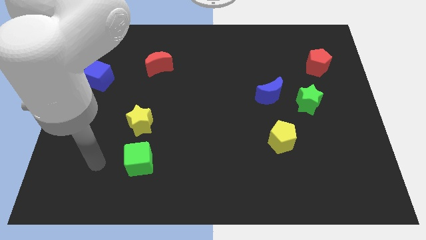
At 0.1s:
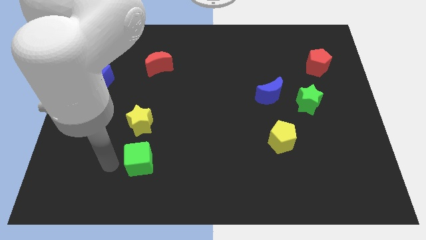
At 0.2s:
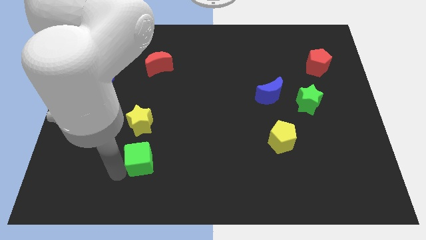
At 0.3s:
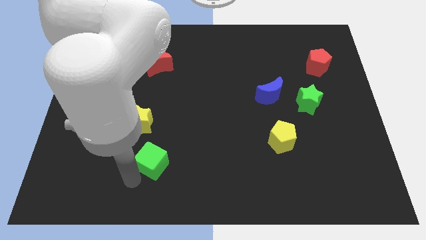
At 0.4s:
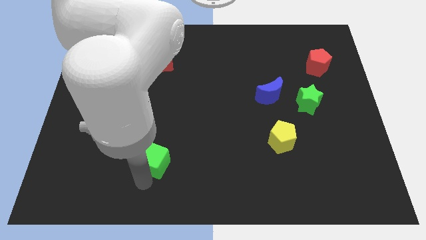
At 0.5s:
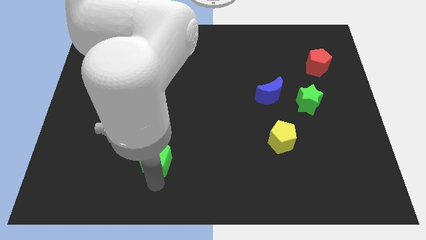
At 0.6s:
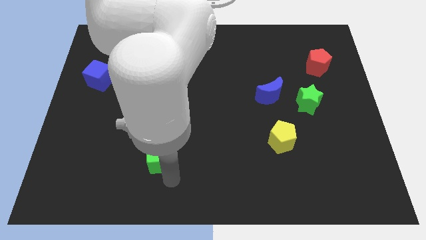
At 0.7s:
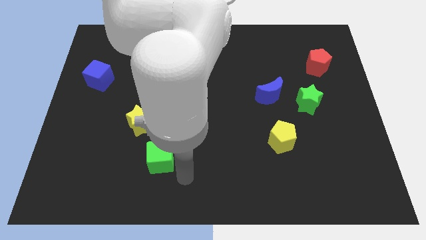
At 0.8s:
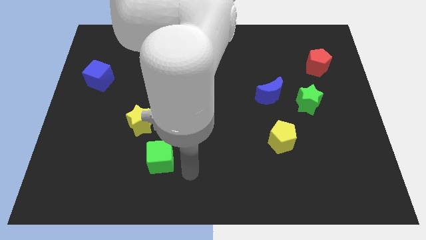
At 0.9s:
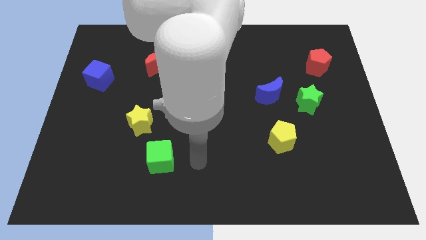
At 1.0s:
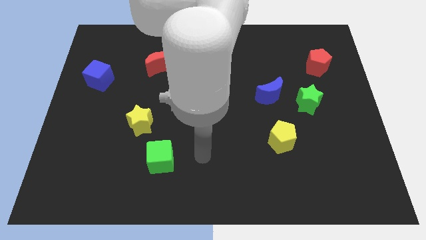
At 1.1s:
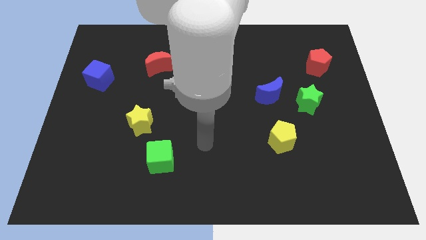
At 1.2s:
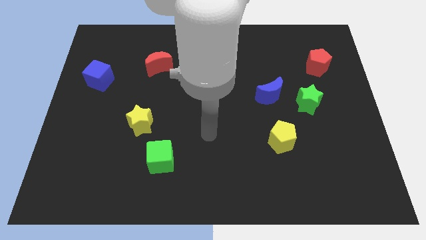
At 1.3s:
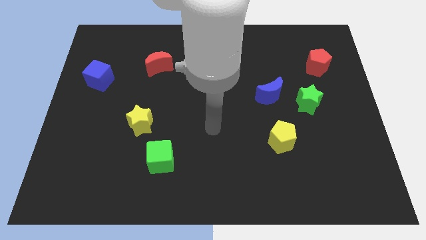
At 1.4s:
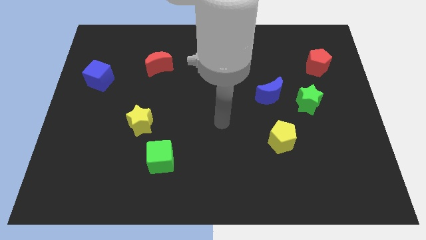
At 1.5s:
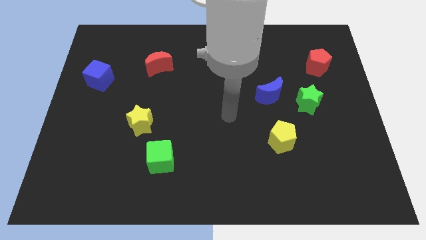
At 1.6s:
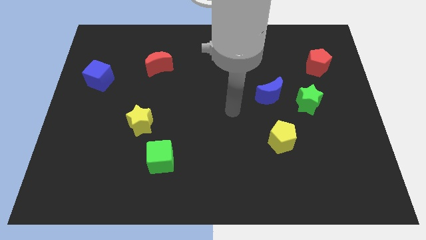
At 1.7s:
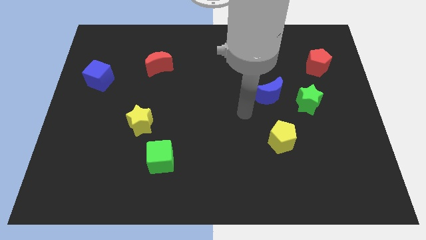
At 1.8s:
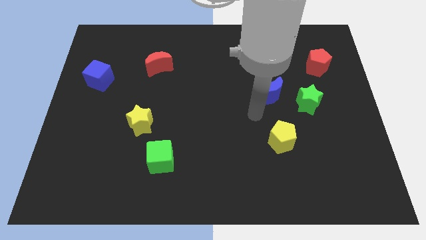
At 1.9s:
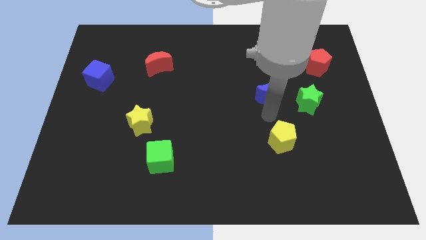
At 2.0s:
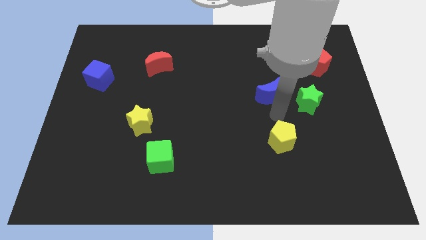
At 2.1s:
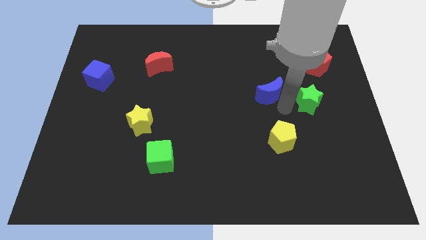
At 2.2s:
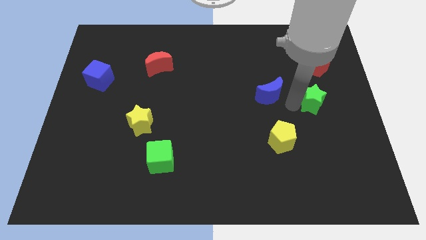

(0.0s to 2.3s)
move the blue moon away from the green star

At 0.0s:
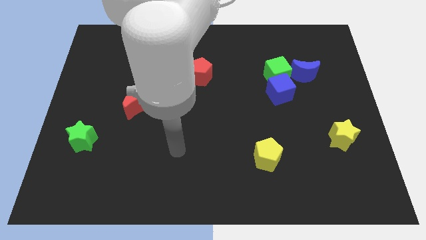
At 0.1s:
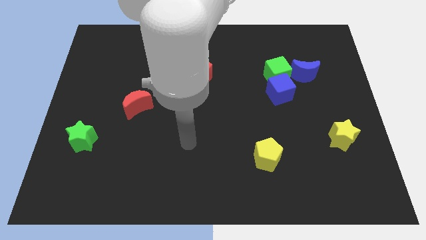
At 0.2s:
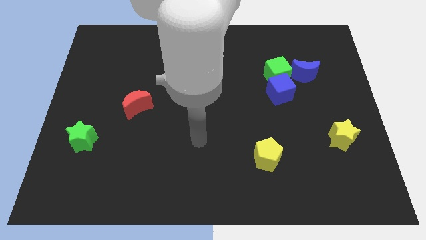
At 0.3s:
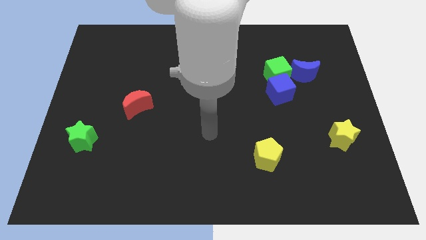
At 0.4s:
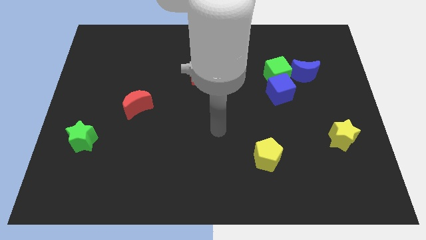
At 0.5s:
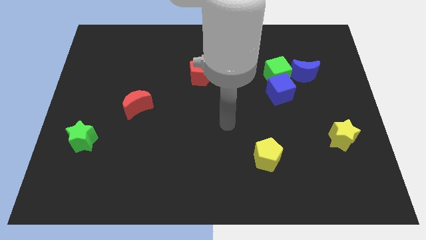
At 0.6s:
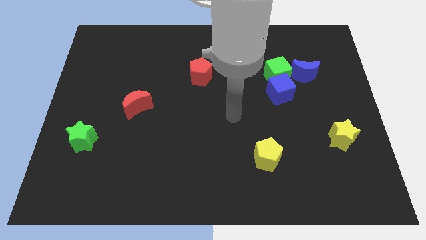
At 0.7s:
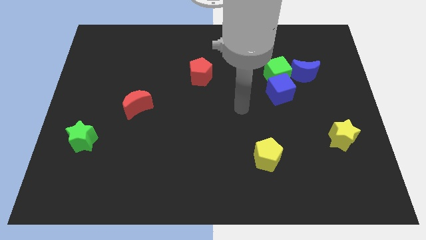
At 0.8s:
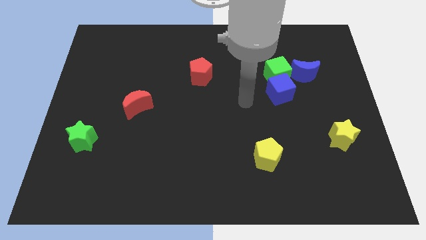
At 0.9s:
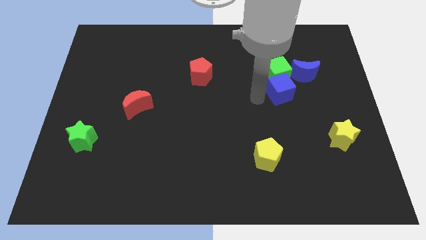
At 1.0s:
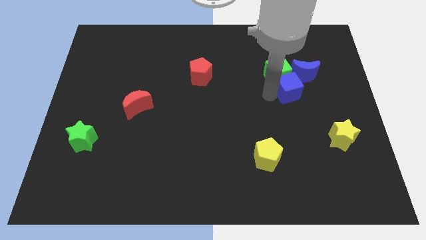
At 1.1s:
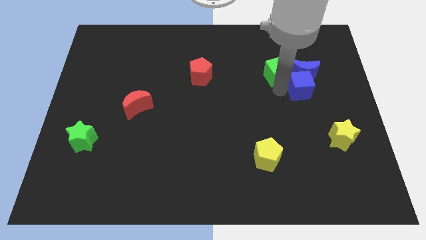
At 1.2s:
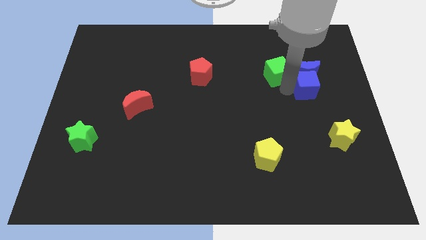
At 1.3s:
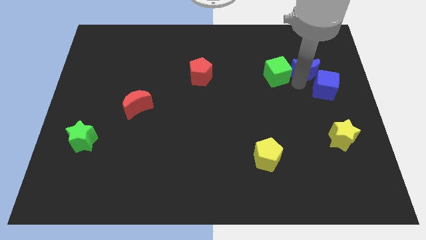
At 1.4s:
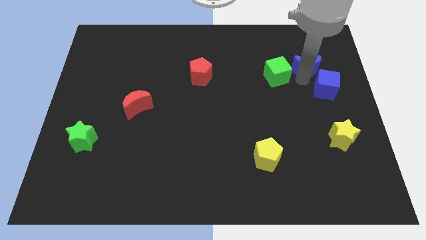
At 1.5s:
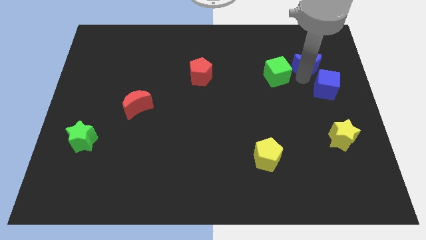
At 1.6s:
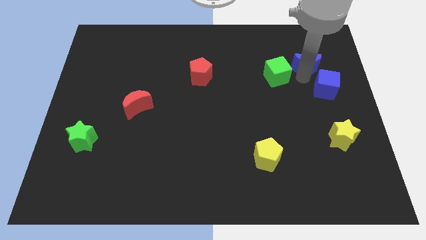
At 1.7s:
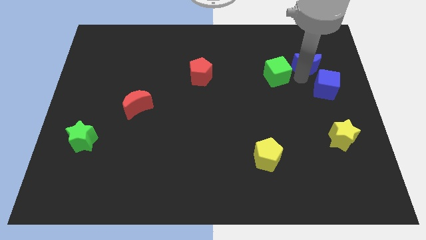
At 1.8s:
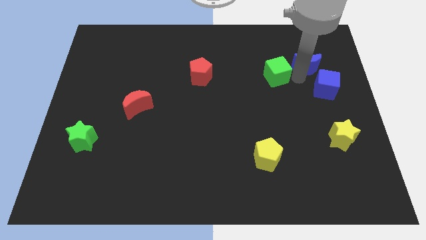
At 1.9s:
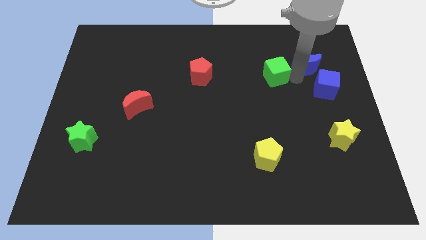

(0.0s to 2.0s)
move the green cube away from the blue cube and blue moon

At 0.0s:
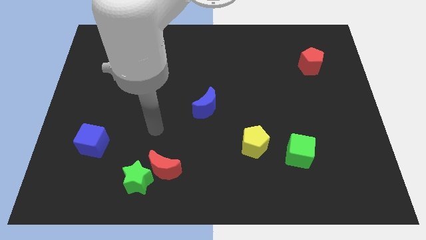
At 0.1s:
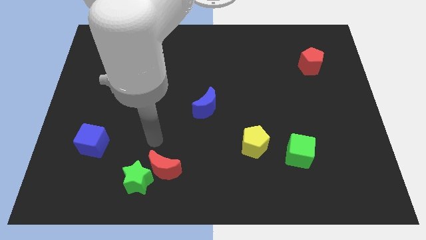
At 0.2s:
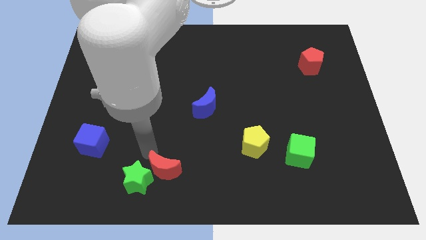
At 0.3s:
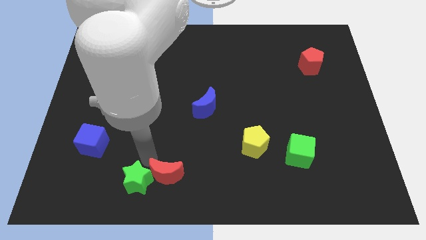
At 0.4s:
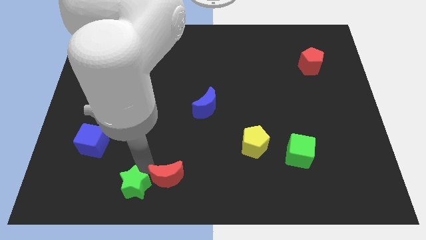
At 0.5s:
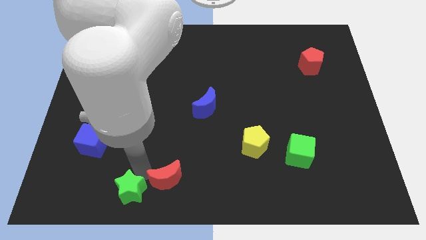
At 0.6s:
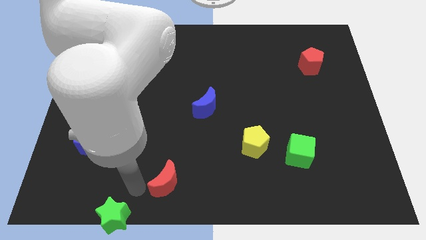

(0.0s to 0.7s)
move the red moon away from the green star

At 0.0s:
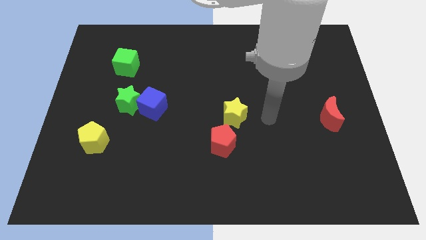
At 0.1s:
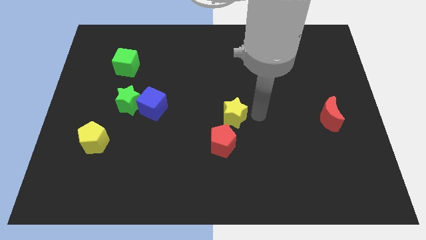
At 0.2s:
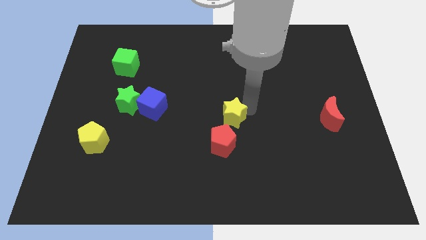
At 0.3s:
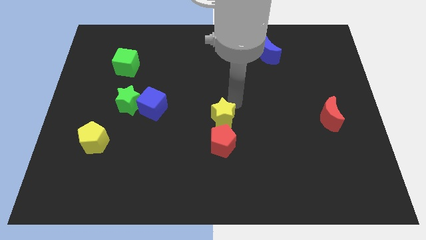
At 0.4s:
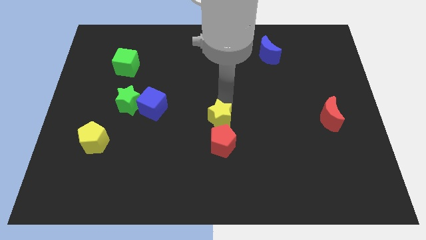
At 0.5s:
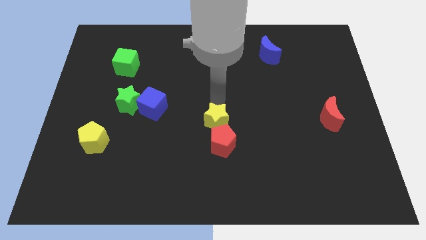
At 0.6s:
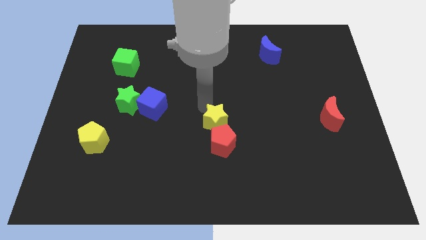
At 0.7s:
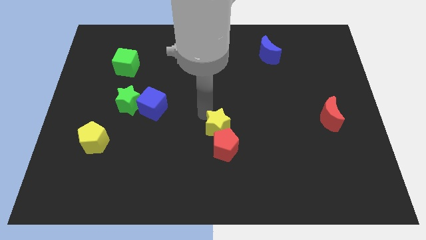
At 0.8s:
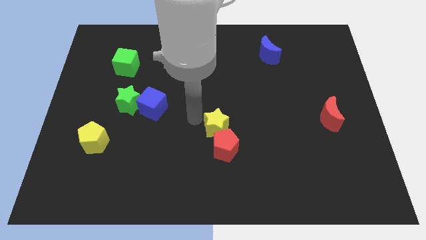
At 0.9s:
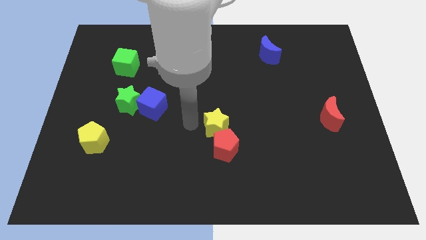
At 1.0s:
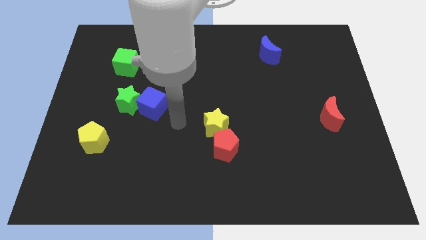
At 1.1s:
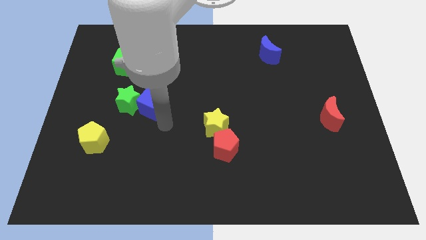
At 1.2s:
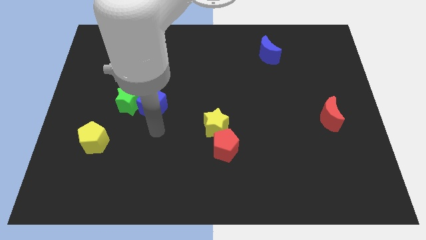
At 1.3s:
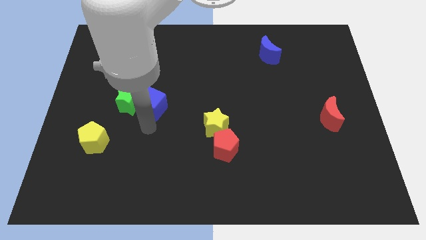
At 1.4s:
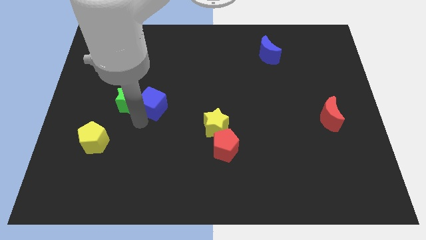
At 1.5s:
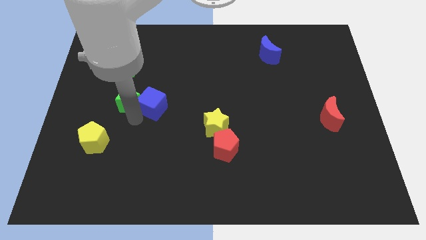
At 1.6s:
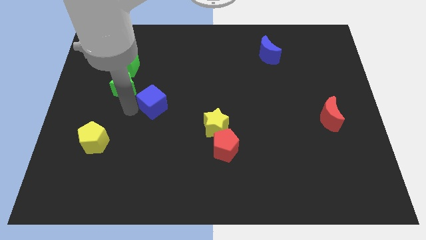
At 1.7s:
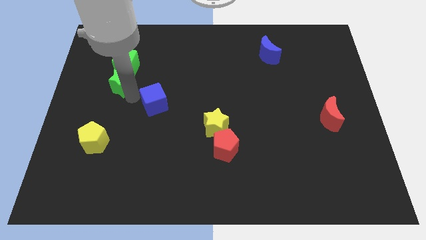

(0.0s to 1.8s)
separate the blue cube from the green star

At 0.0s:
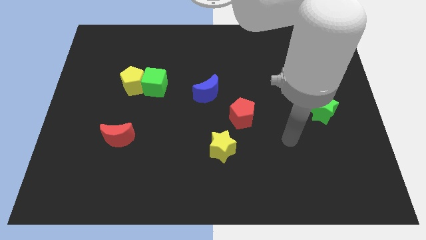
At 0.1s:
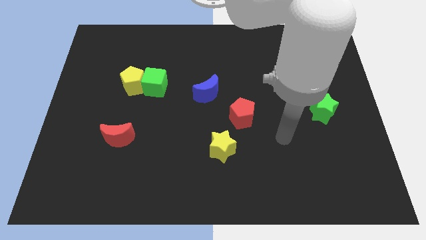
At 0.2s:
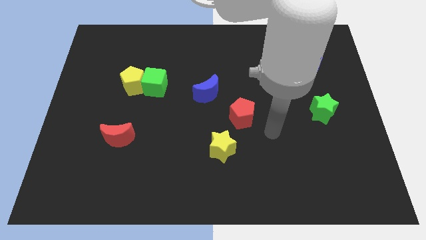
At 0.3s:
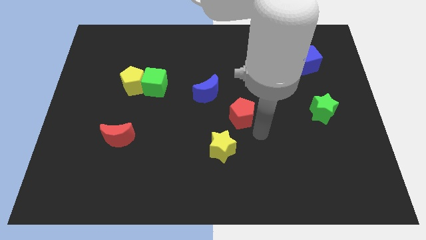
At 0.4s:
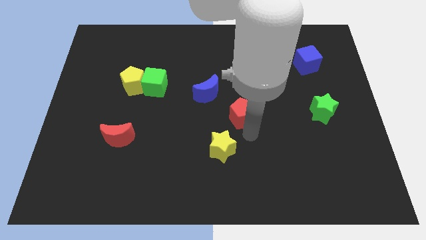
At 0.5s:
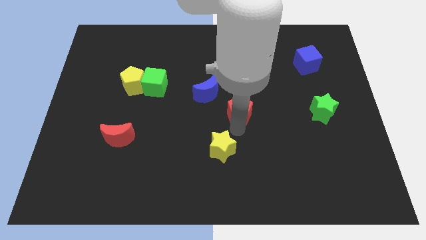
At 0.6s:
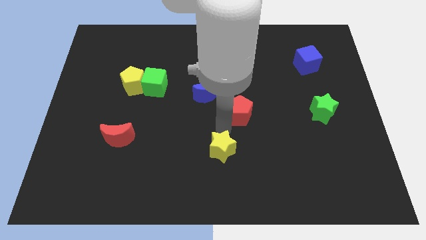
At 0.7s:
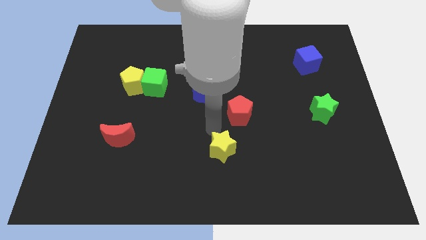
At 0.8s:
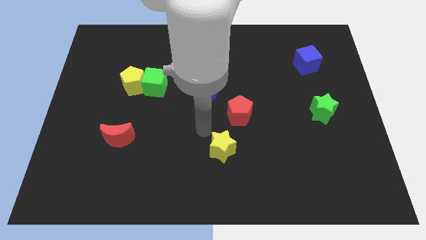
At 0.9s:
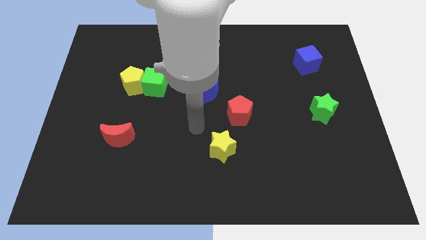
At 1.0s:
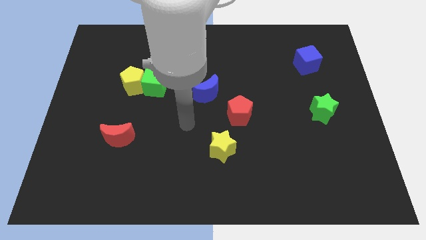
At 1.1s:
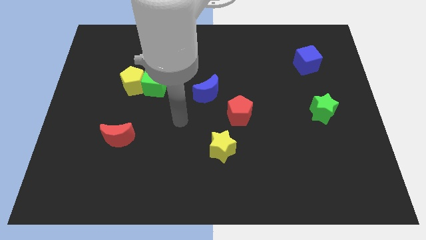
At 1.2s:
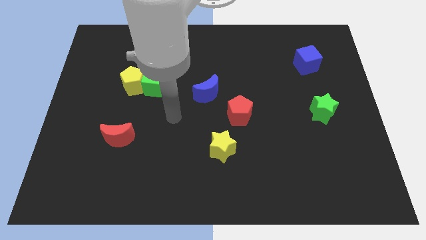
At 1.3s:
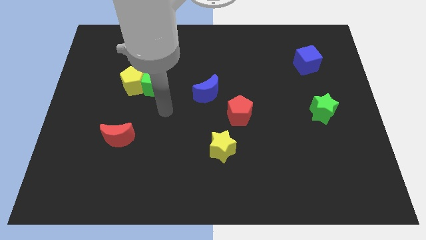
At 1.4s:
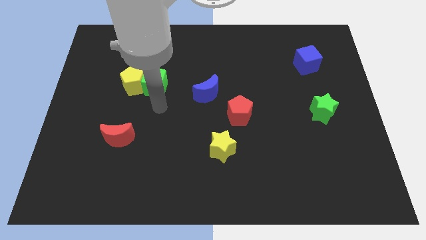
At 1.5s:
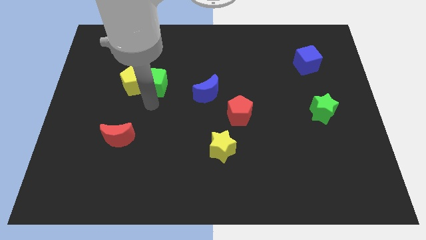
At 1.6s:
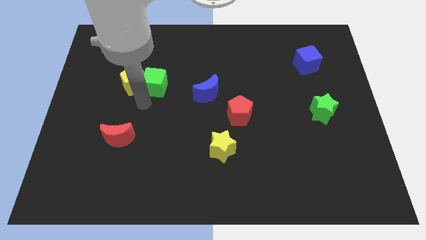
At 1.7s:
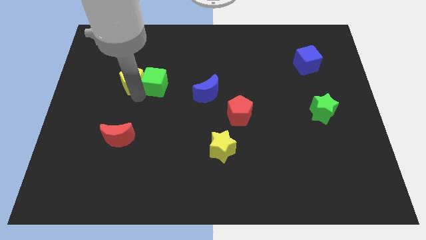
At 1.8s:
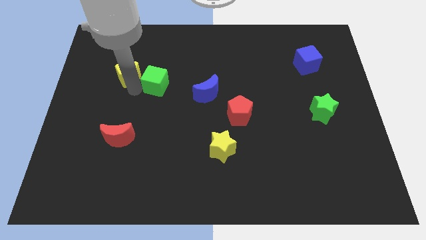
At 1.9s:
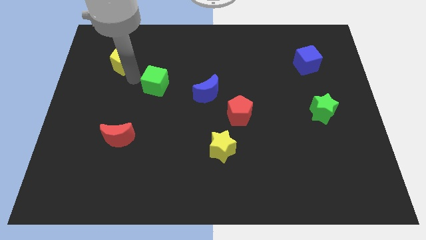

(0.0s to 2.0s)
move the green cube away from the yellow pentagon

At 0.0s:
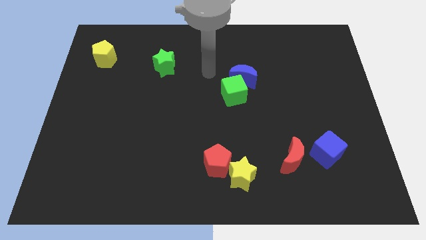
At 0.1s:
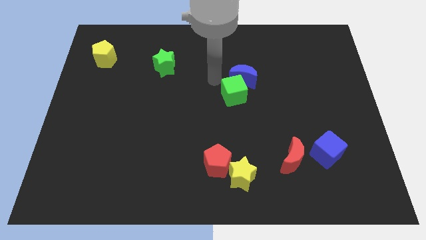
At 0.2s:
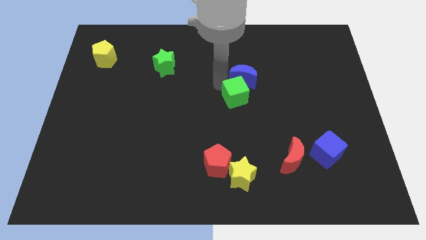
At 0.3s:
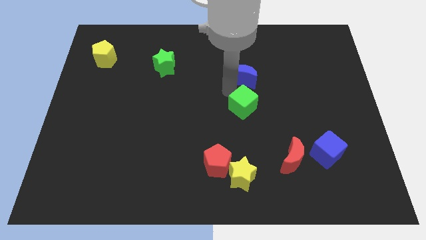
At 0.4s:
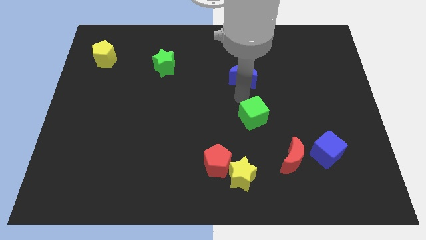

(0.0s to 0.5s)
move the blue moon away from the green cube
